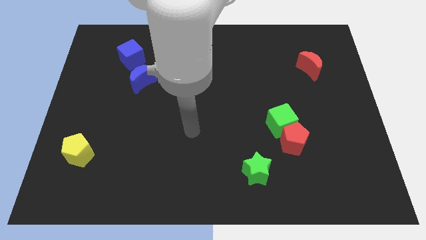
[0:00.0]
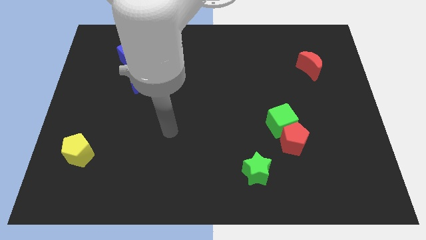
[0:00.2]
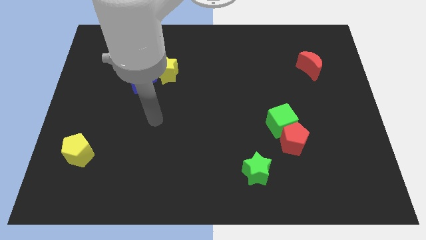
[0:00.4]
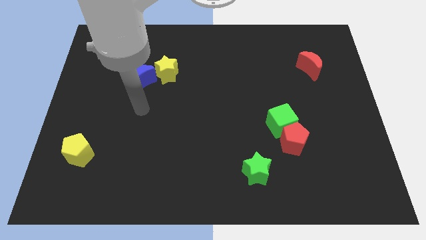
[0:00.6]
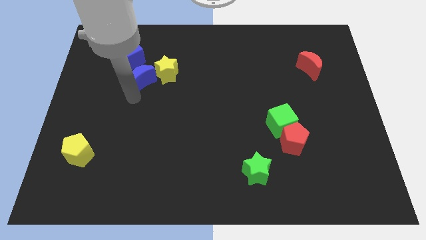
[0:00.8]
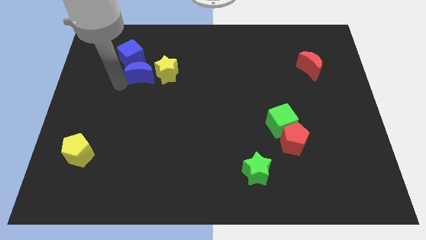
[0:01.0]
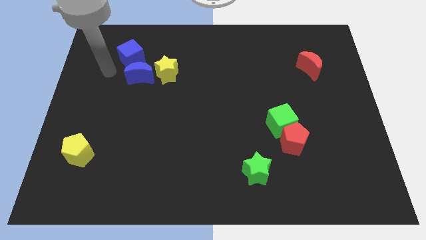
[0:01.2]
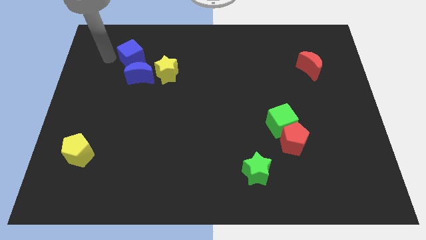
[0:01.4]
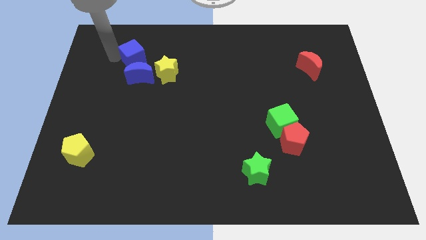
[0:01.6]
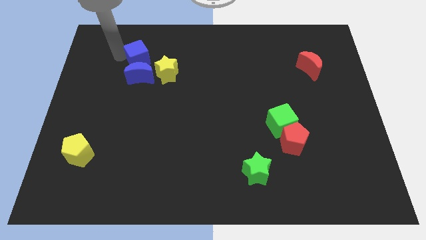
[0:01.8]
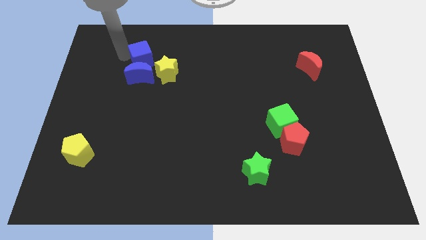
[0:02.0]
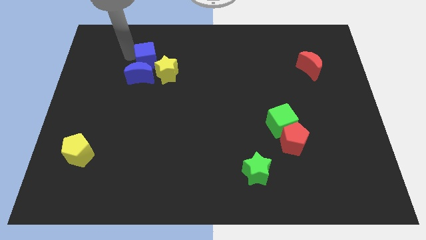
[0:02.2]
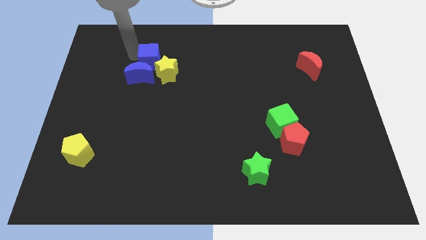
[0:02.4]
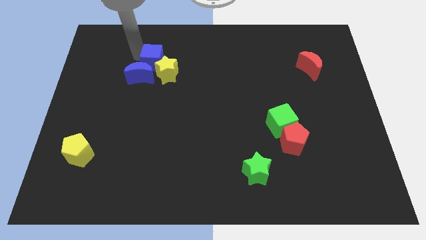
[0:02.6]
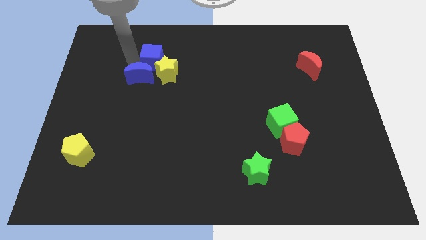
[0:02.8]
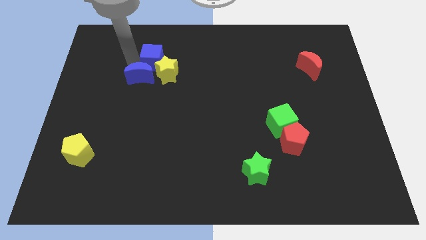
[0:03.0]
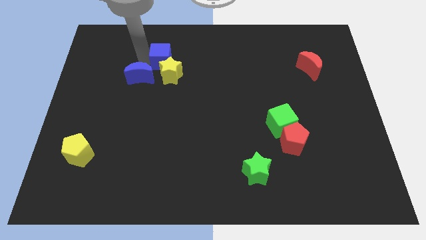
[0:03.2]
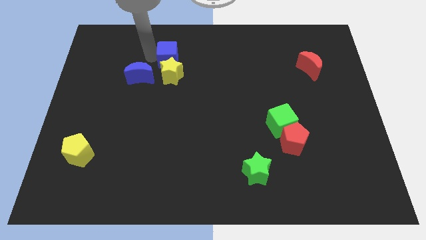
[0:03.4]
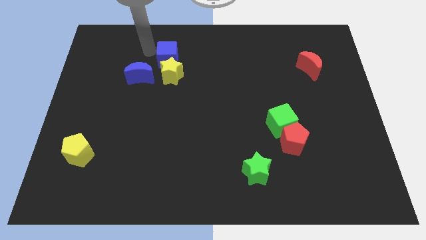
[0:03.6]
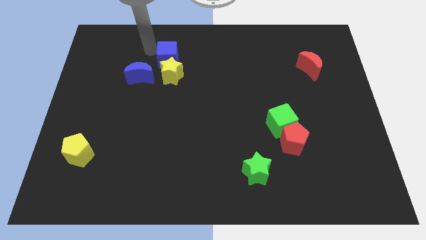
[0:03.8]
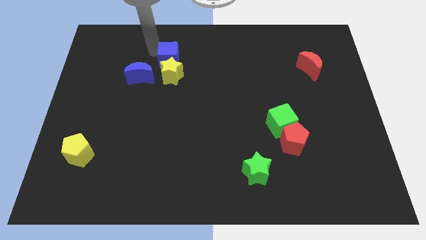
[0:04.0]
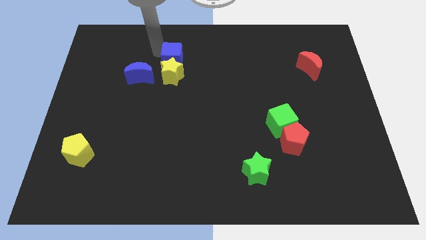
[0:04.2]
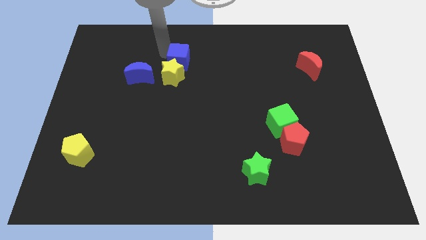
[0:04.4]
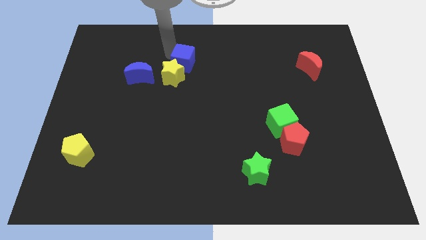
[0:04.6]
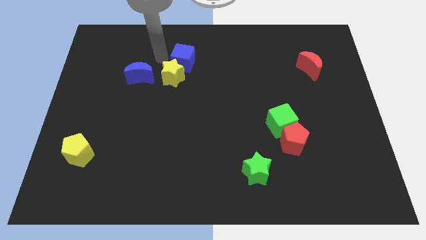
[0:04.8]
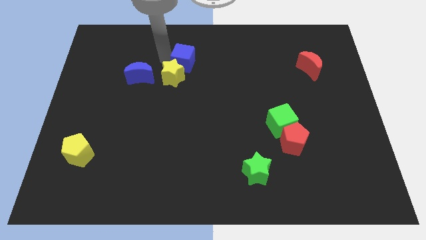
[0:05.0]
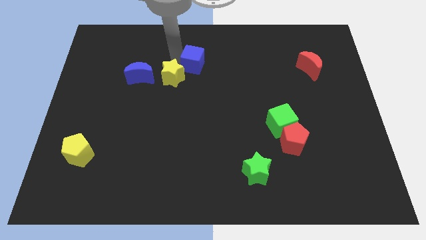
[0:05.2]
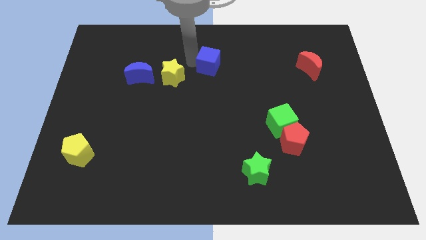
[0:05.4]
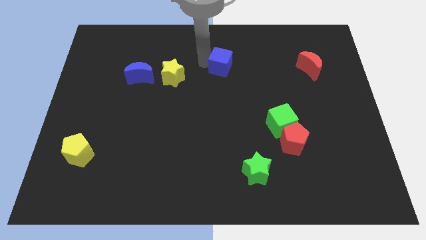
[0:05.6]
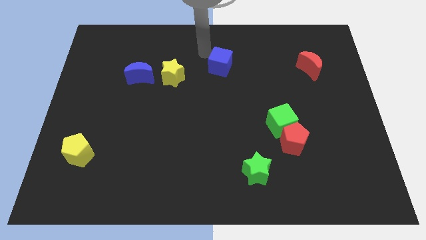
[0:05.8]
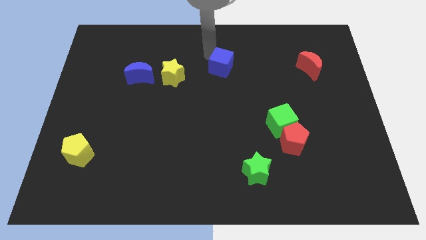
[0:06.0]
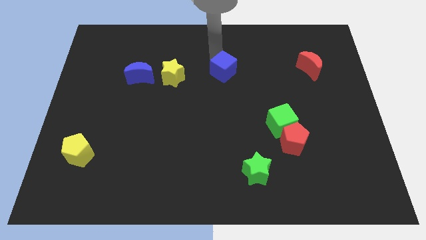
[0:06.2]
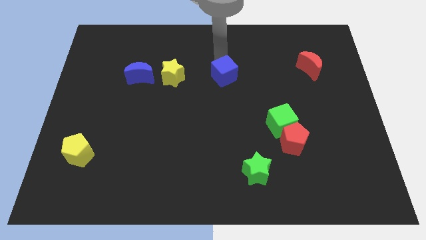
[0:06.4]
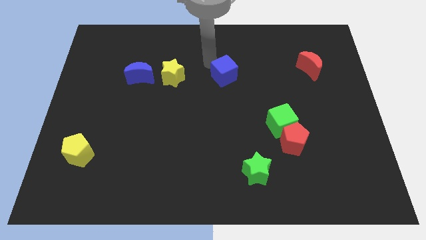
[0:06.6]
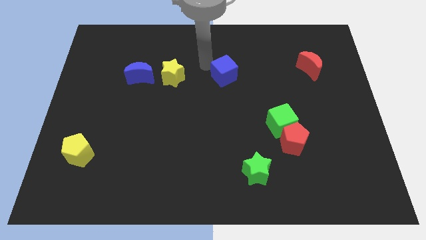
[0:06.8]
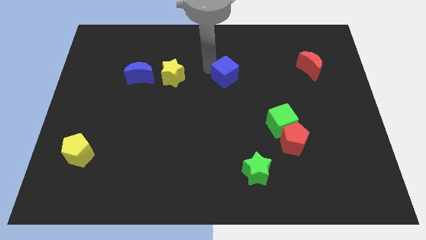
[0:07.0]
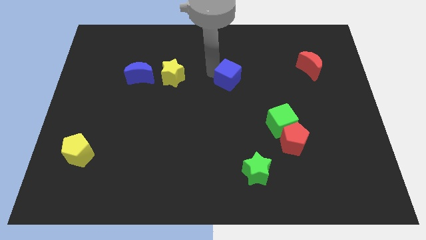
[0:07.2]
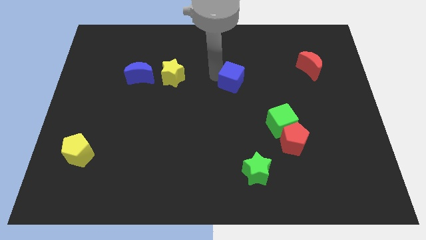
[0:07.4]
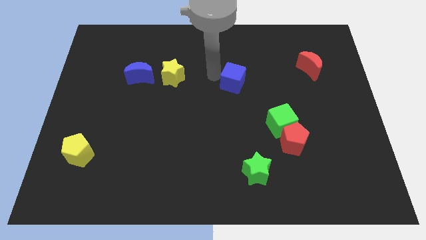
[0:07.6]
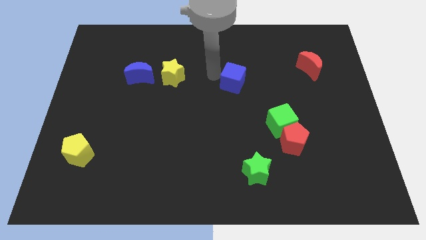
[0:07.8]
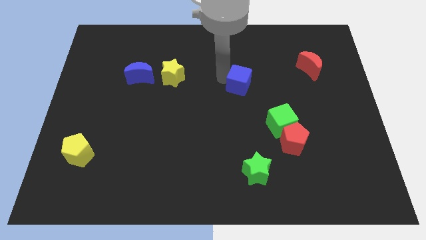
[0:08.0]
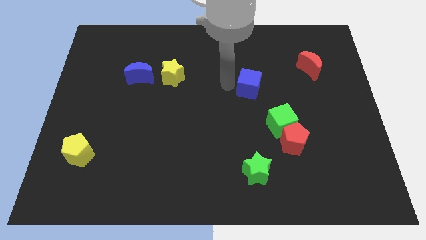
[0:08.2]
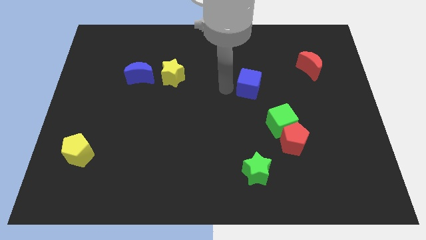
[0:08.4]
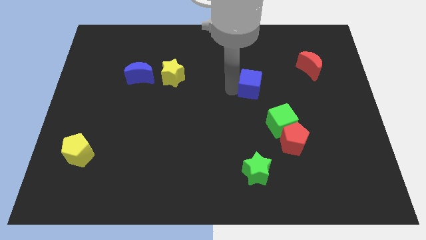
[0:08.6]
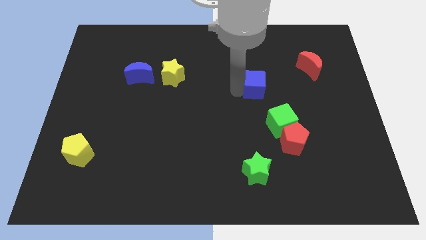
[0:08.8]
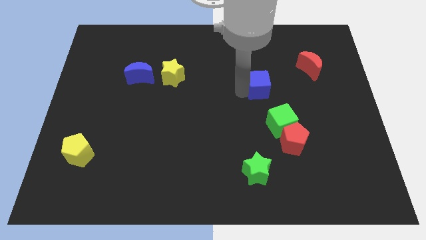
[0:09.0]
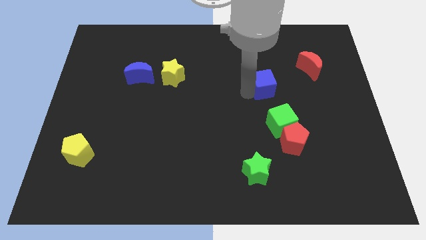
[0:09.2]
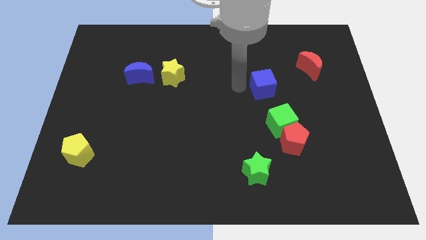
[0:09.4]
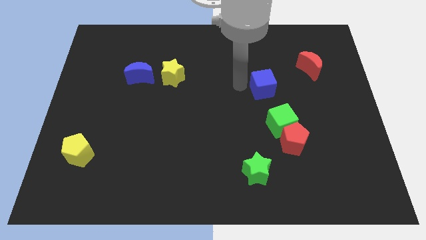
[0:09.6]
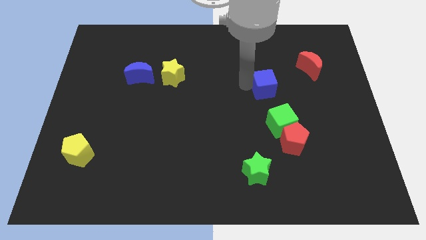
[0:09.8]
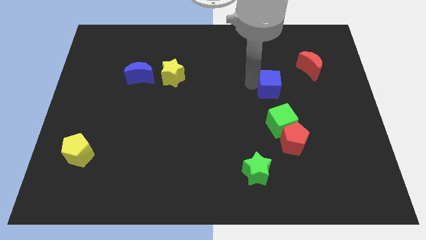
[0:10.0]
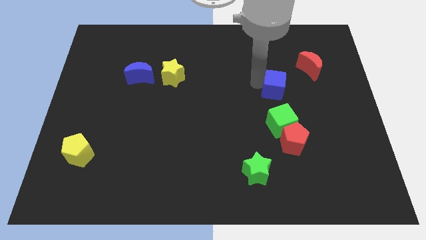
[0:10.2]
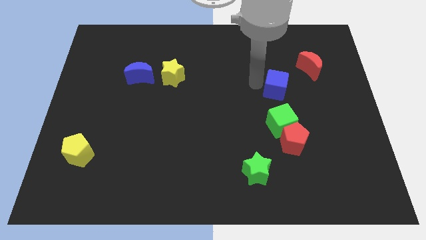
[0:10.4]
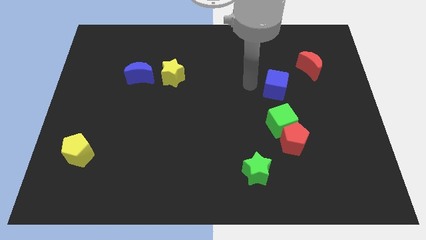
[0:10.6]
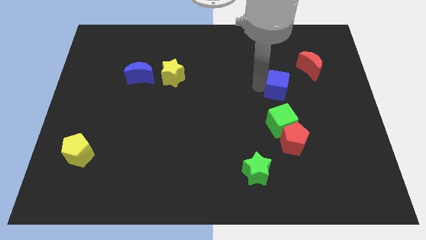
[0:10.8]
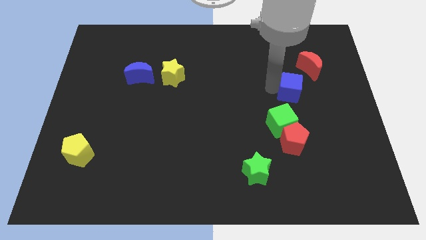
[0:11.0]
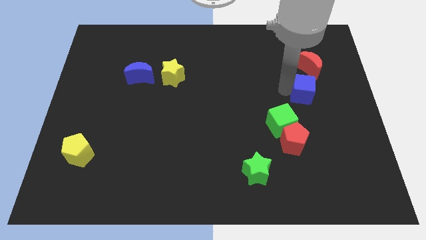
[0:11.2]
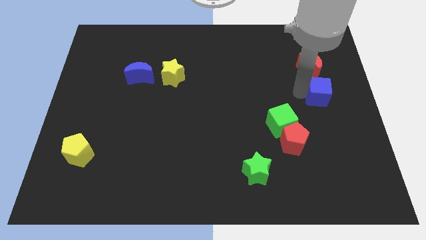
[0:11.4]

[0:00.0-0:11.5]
move the blue cube to the right side of the board

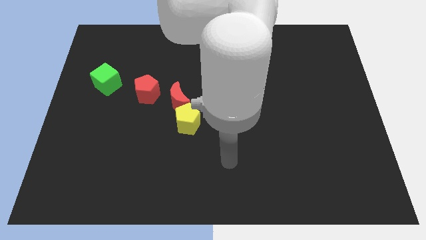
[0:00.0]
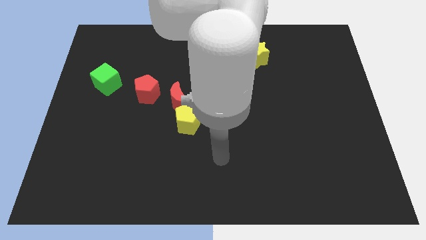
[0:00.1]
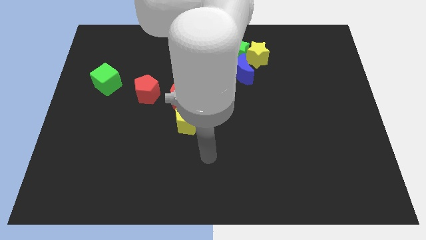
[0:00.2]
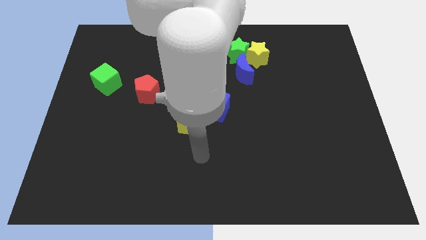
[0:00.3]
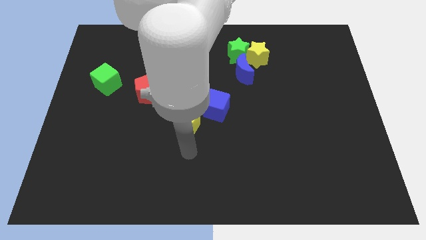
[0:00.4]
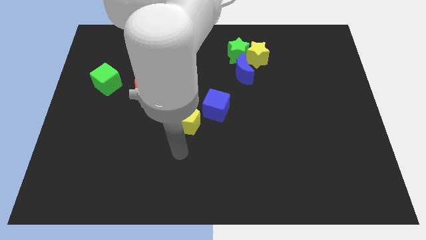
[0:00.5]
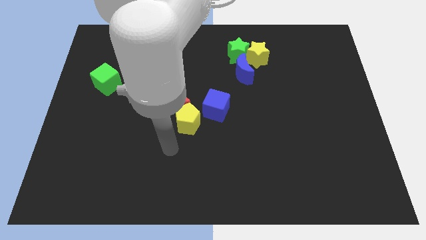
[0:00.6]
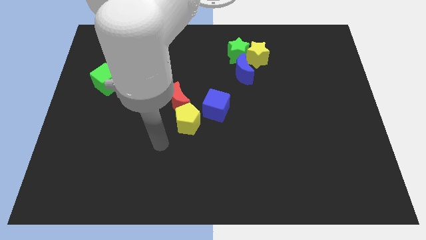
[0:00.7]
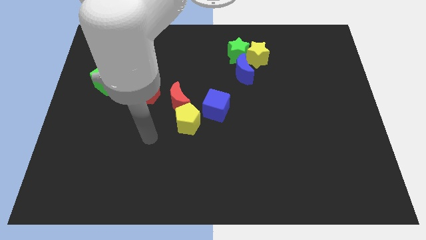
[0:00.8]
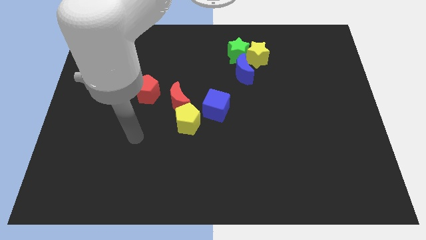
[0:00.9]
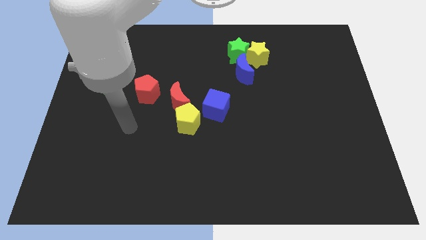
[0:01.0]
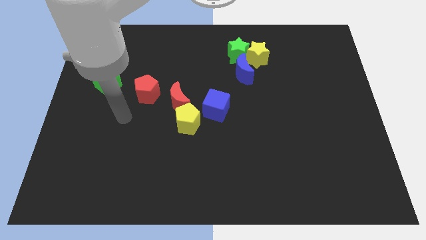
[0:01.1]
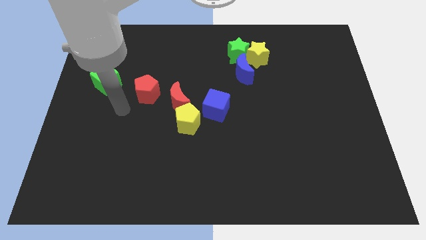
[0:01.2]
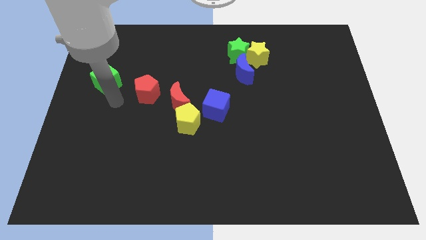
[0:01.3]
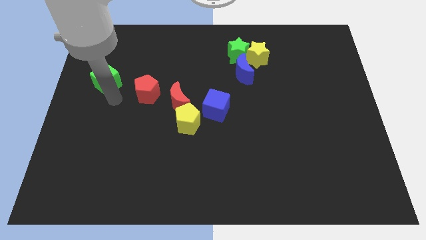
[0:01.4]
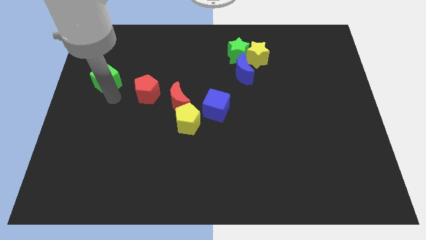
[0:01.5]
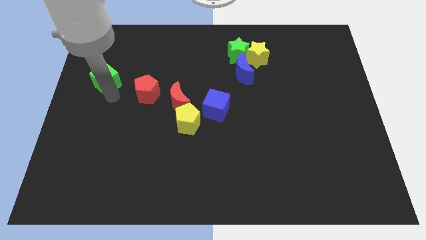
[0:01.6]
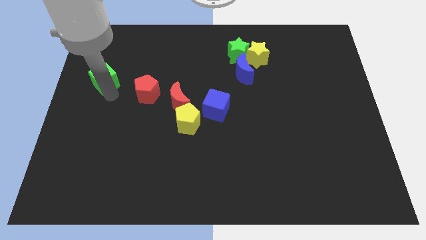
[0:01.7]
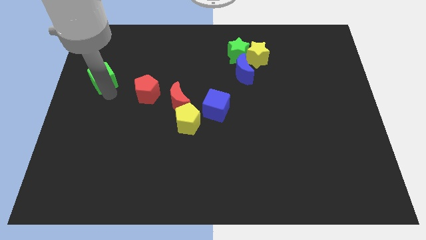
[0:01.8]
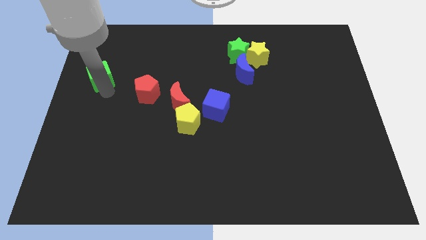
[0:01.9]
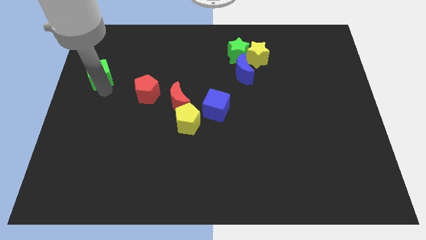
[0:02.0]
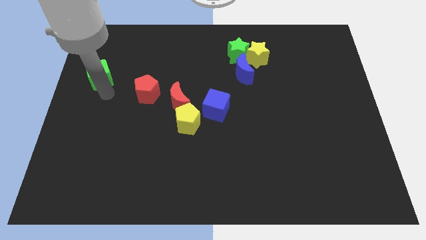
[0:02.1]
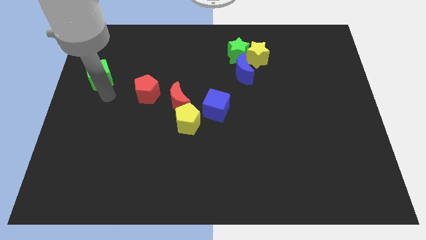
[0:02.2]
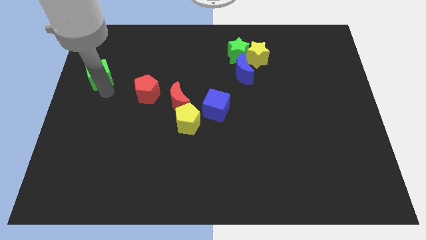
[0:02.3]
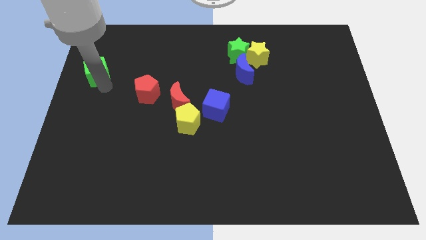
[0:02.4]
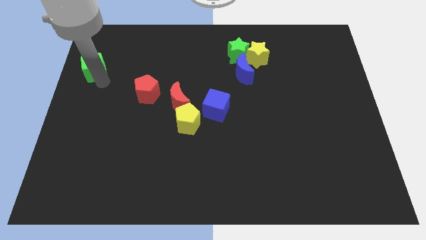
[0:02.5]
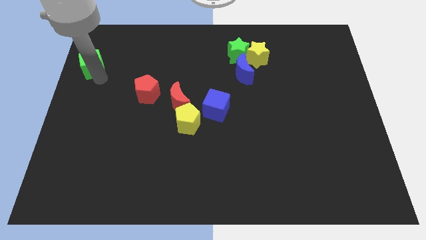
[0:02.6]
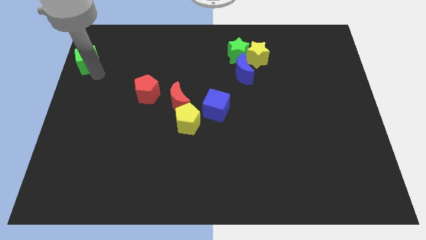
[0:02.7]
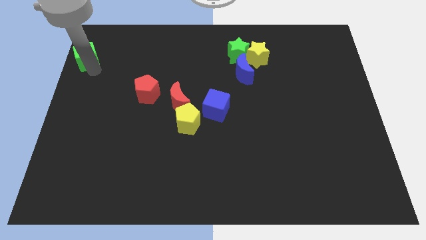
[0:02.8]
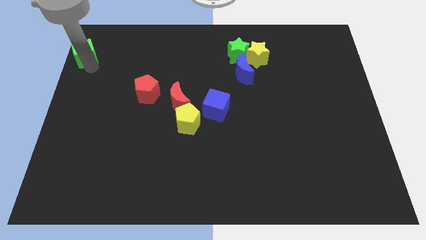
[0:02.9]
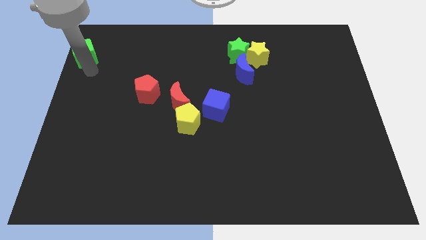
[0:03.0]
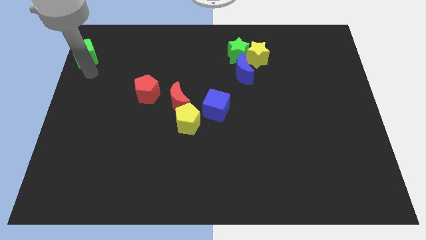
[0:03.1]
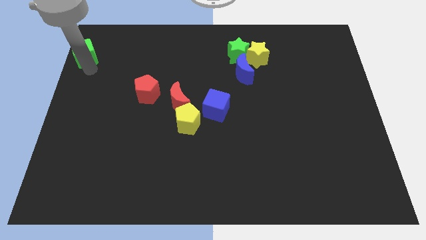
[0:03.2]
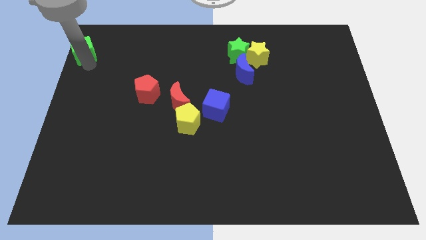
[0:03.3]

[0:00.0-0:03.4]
move the green cube to the upper left corner
